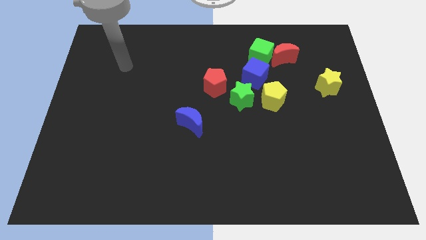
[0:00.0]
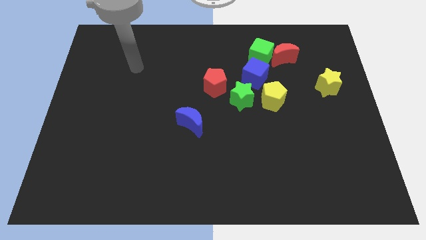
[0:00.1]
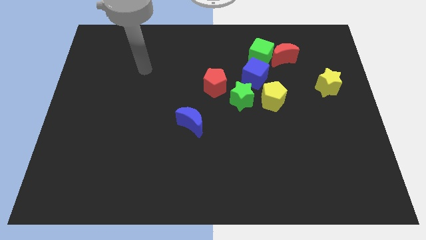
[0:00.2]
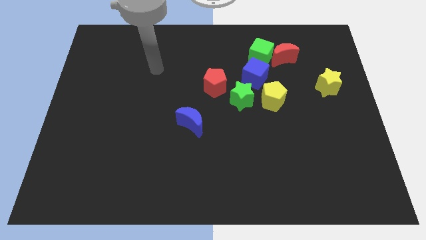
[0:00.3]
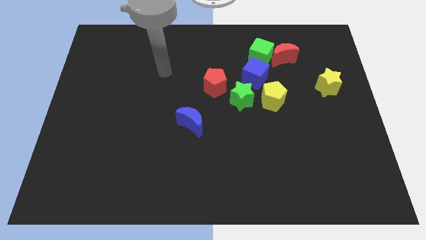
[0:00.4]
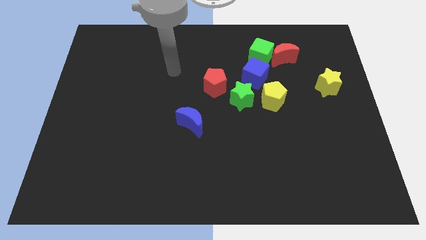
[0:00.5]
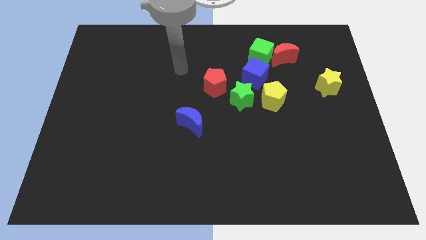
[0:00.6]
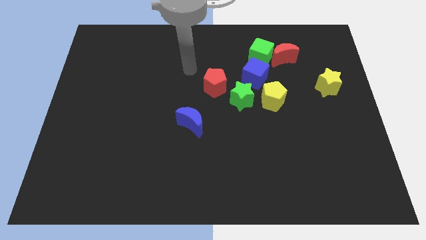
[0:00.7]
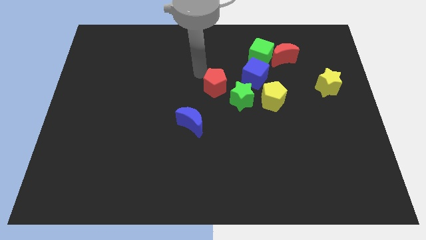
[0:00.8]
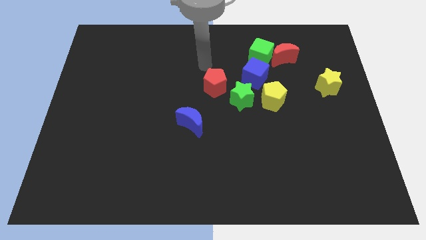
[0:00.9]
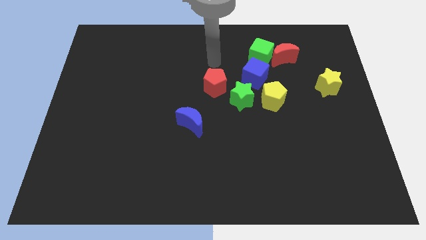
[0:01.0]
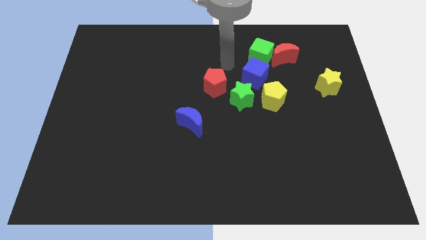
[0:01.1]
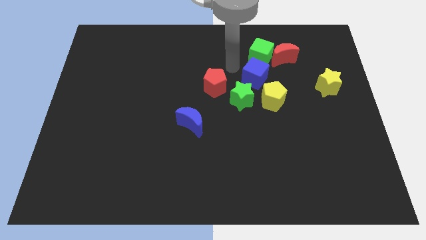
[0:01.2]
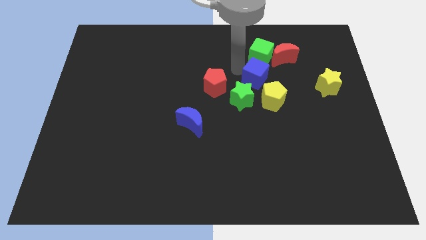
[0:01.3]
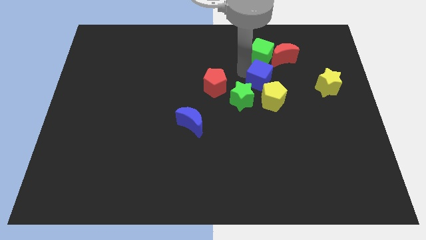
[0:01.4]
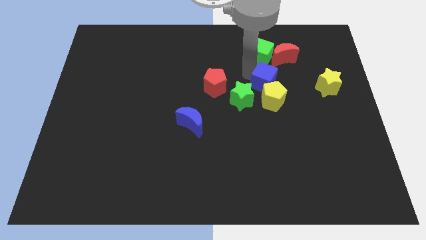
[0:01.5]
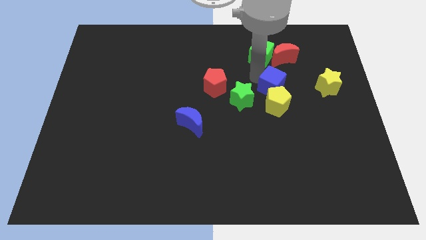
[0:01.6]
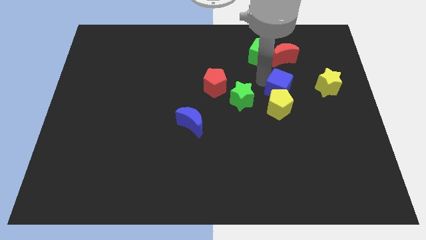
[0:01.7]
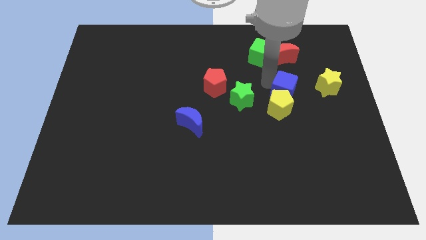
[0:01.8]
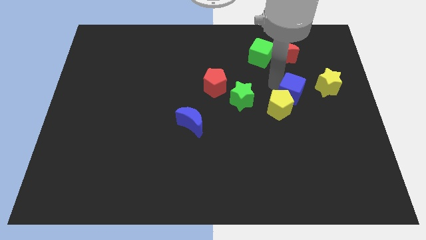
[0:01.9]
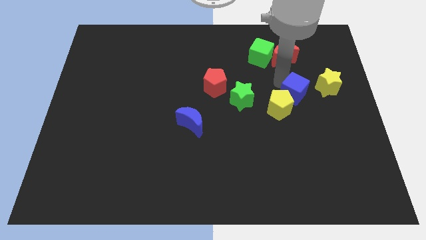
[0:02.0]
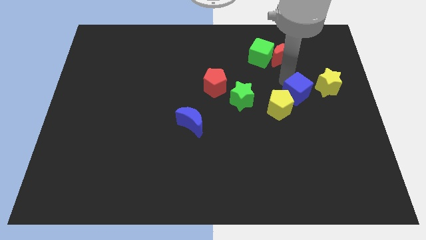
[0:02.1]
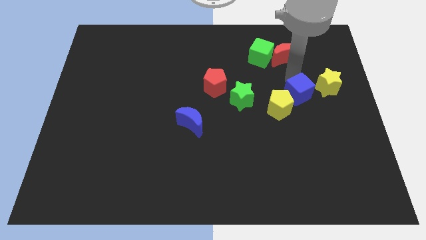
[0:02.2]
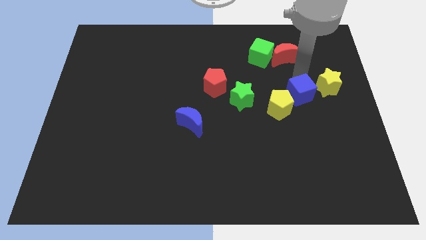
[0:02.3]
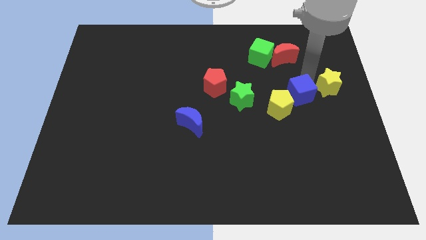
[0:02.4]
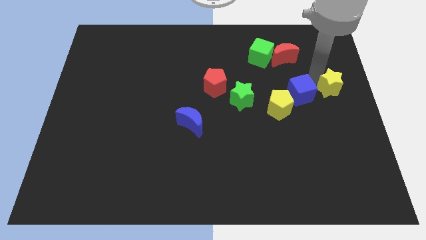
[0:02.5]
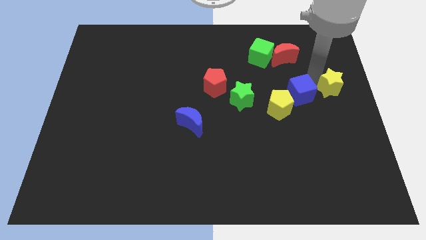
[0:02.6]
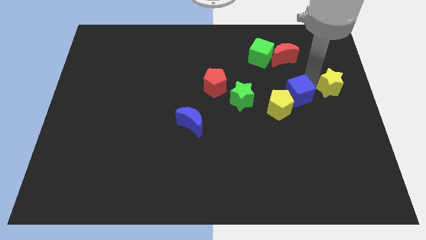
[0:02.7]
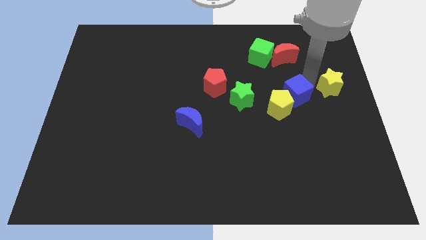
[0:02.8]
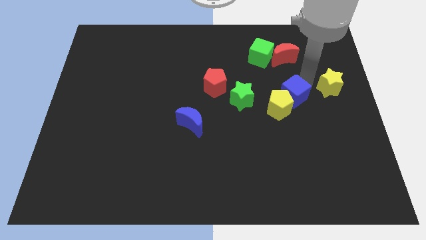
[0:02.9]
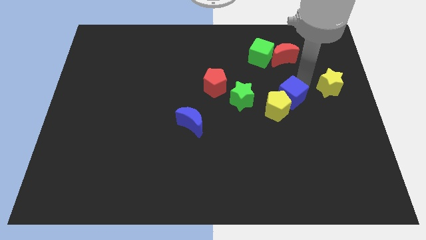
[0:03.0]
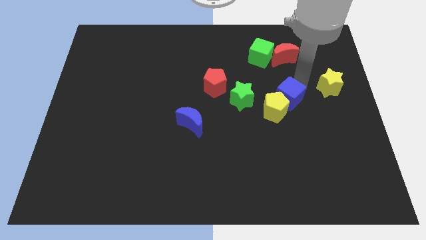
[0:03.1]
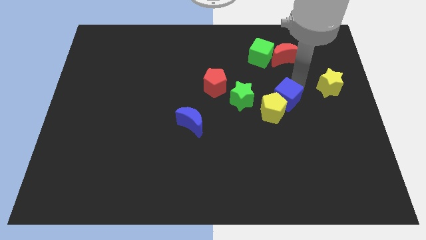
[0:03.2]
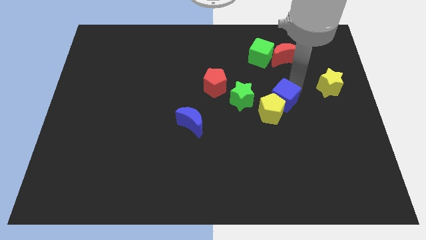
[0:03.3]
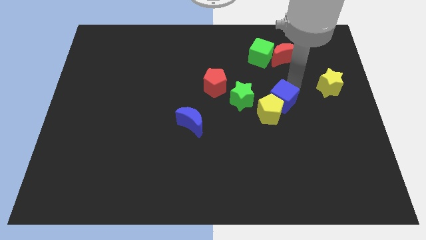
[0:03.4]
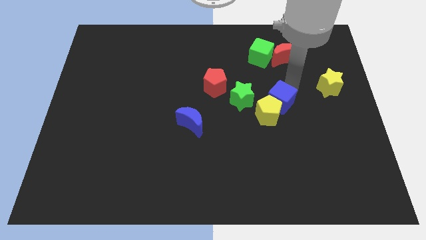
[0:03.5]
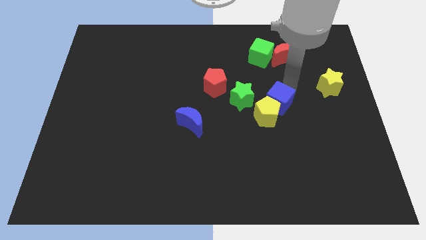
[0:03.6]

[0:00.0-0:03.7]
slide the blue cube down somewhat

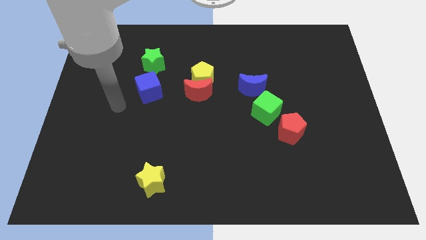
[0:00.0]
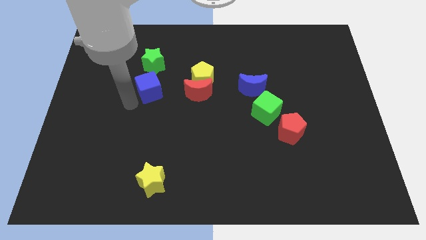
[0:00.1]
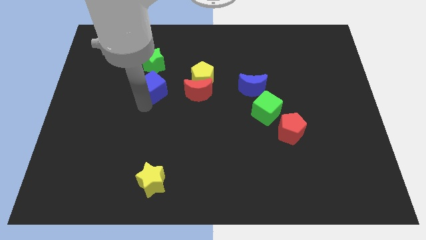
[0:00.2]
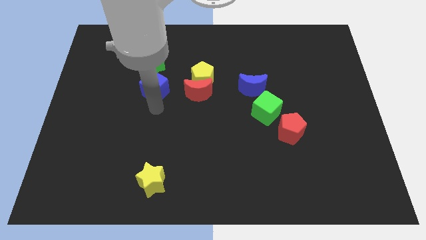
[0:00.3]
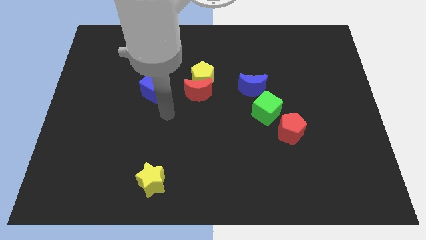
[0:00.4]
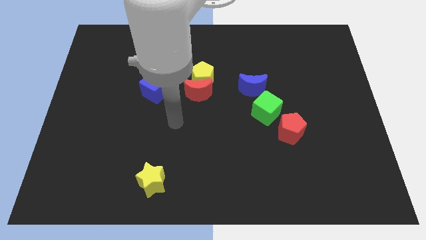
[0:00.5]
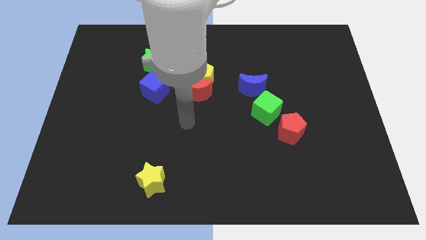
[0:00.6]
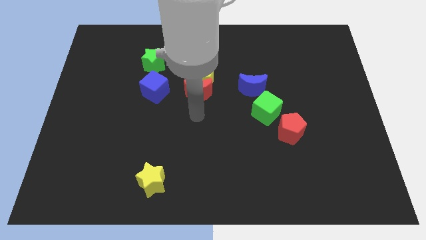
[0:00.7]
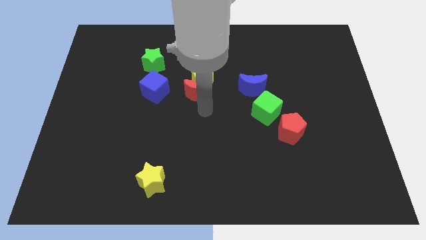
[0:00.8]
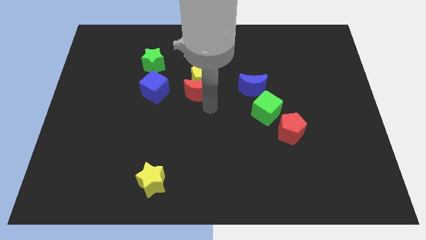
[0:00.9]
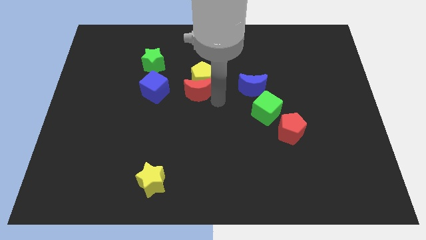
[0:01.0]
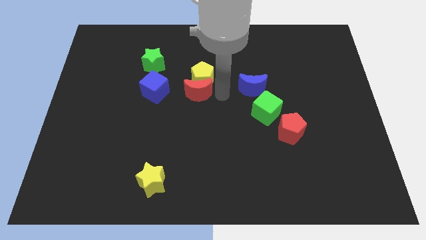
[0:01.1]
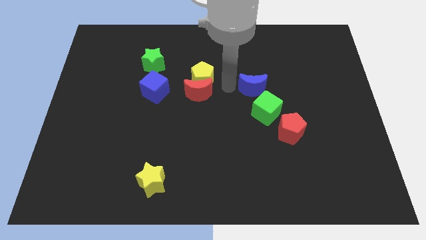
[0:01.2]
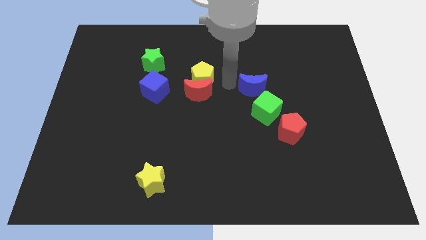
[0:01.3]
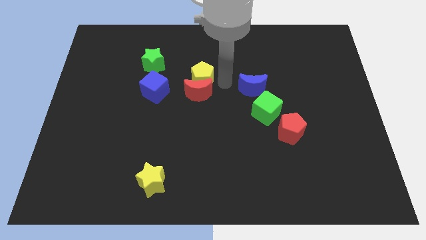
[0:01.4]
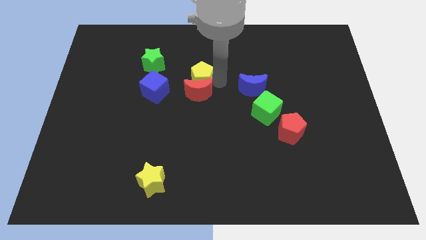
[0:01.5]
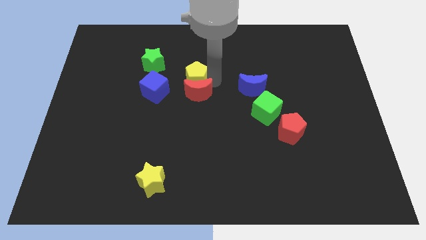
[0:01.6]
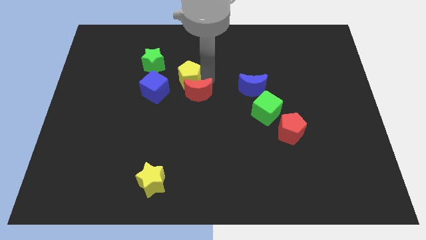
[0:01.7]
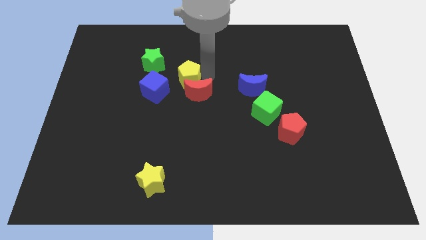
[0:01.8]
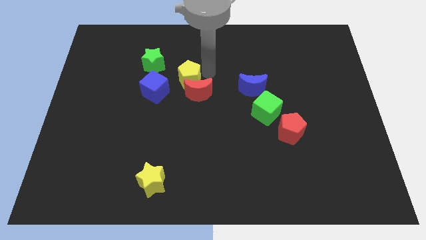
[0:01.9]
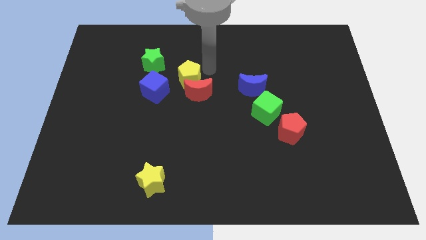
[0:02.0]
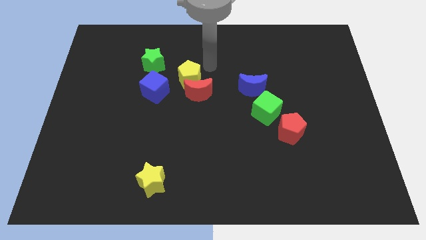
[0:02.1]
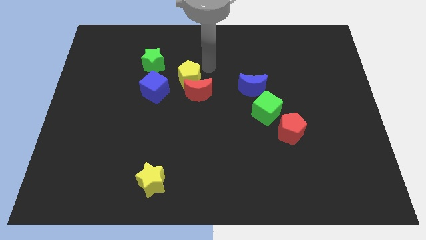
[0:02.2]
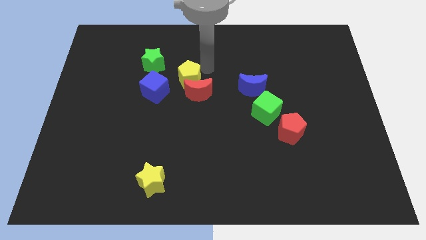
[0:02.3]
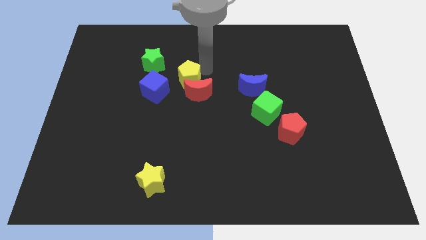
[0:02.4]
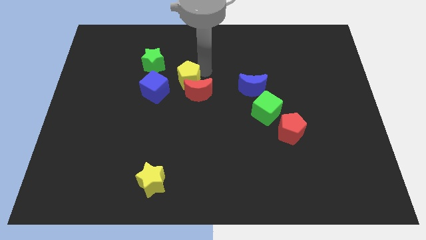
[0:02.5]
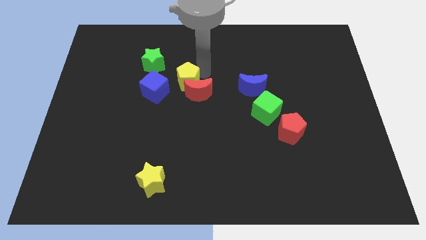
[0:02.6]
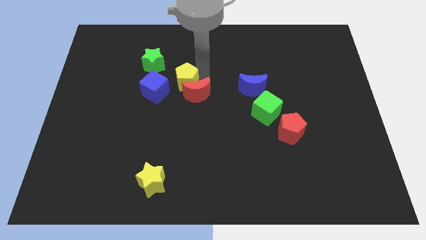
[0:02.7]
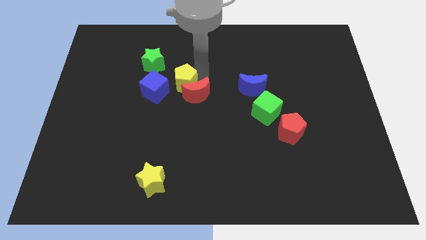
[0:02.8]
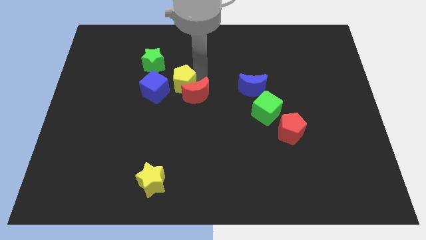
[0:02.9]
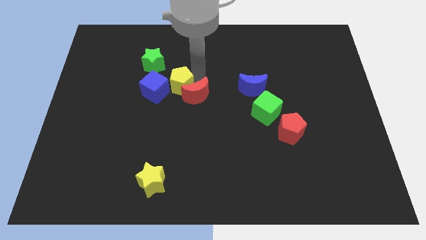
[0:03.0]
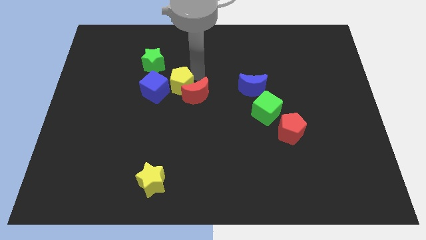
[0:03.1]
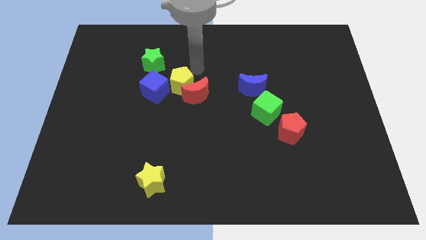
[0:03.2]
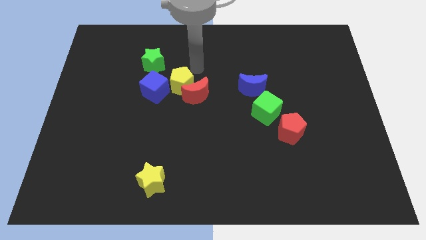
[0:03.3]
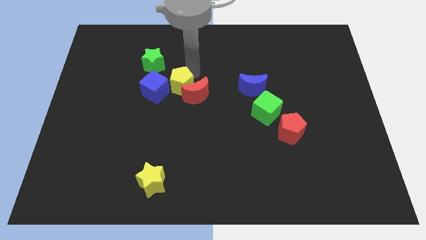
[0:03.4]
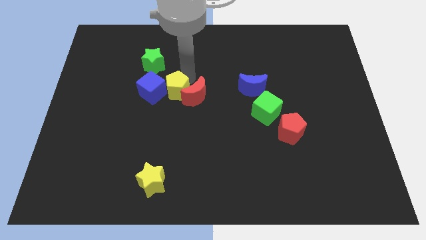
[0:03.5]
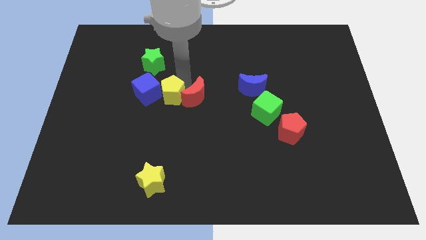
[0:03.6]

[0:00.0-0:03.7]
slide the yellow pentagon slightly downwards and left

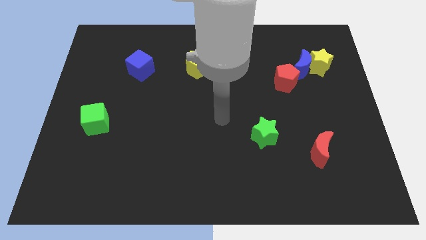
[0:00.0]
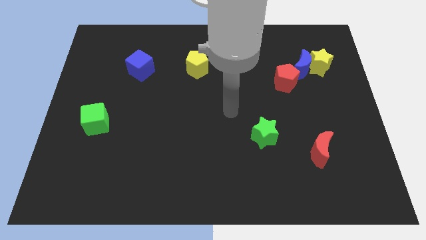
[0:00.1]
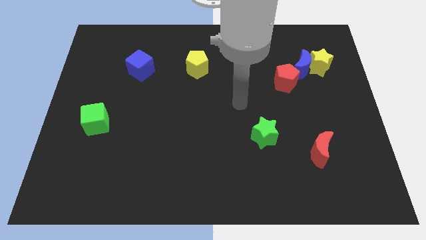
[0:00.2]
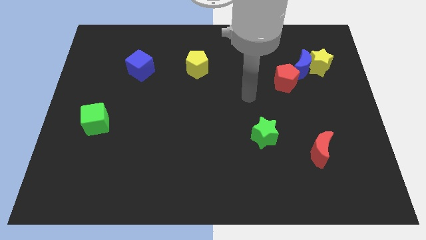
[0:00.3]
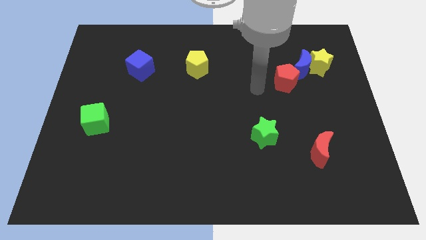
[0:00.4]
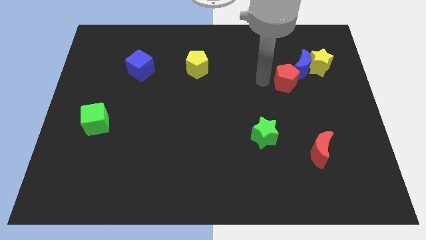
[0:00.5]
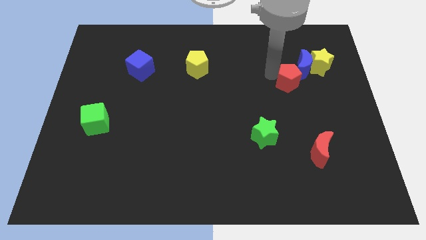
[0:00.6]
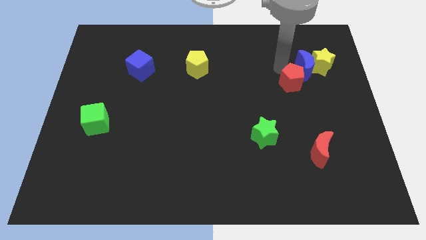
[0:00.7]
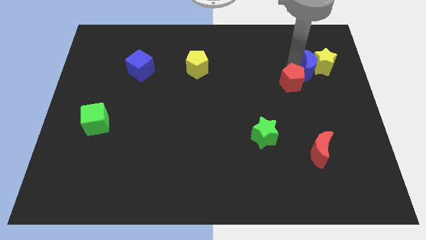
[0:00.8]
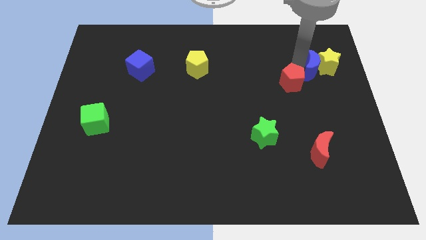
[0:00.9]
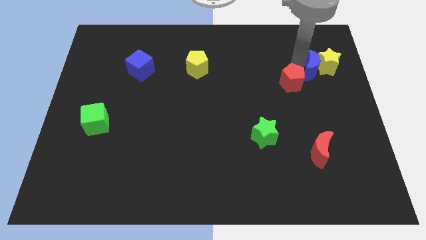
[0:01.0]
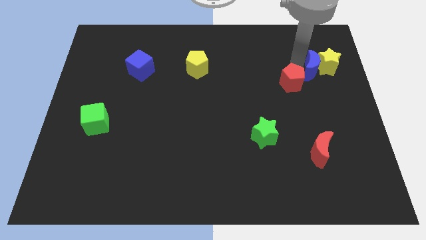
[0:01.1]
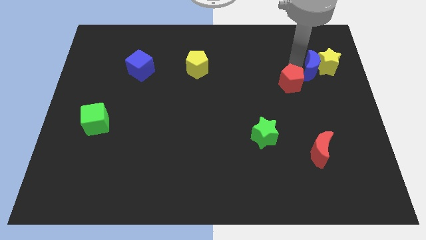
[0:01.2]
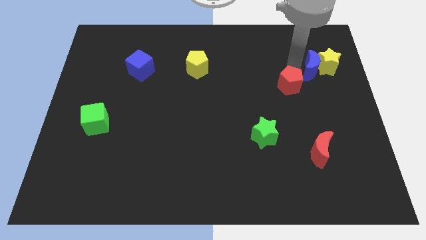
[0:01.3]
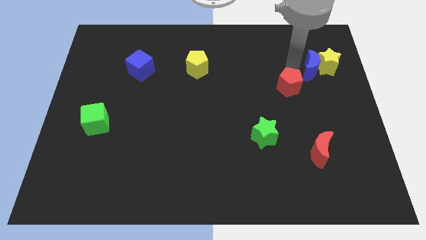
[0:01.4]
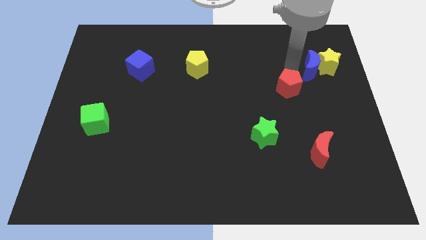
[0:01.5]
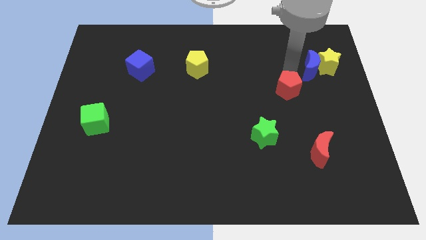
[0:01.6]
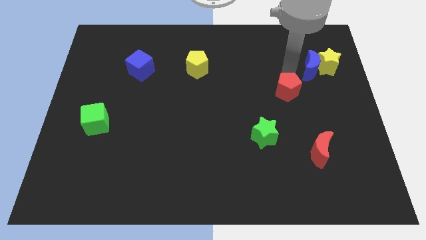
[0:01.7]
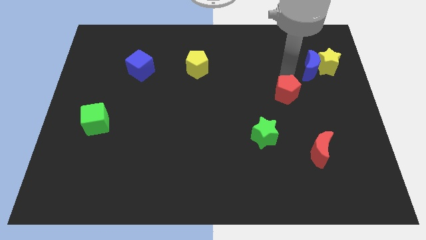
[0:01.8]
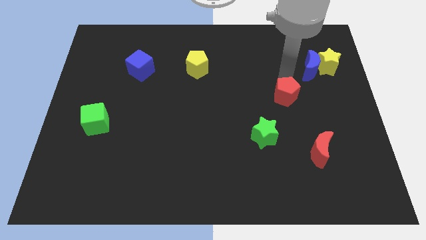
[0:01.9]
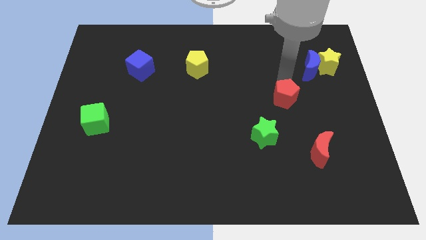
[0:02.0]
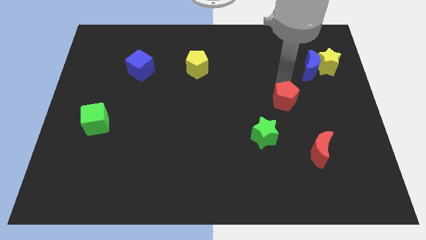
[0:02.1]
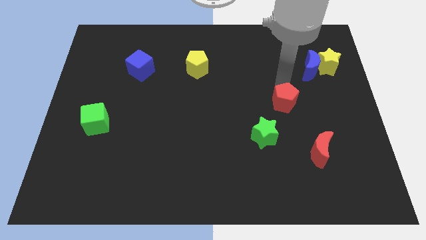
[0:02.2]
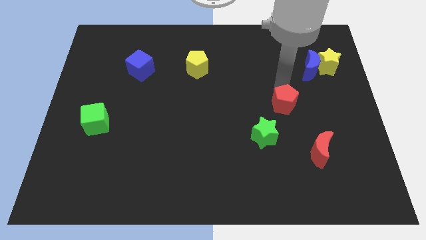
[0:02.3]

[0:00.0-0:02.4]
push the red pentagon slightly down
